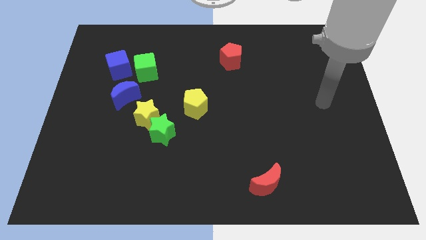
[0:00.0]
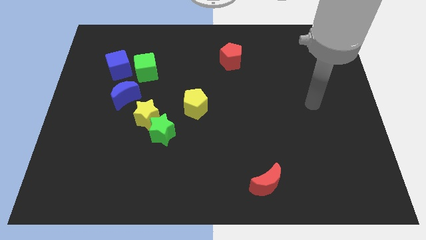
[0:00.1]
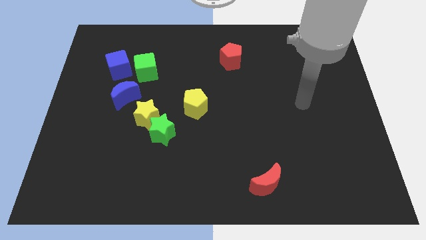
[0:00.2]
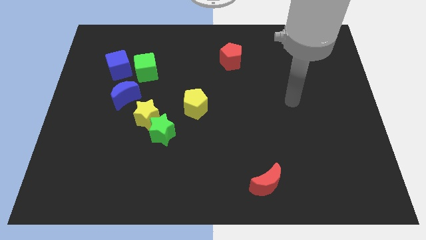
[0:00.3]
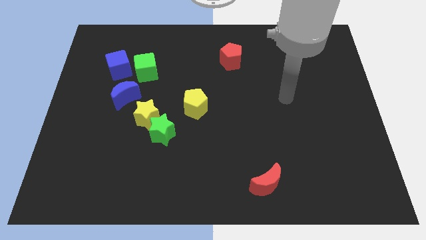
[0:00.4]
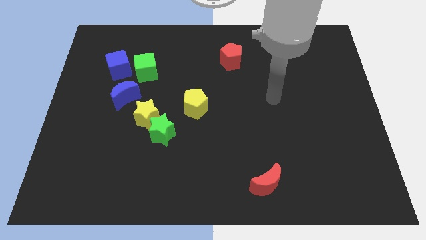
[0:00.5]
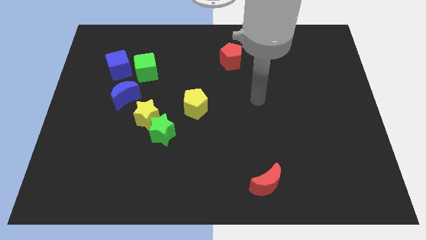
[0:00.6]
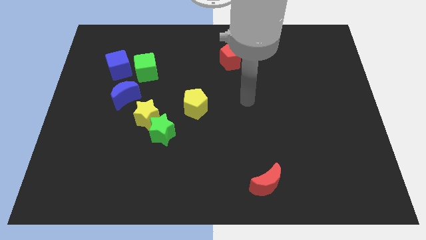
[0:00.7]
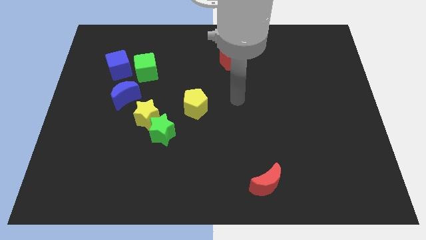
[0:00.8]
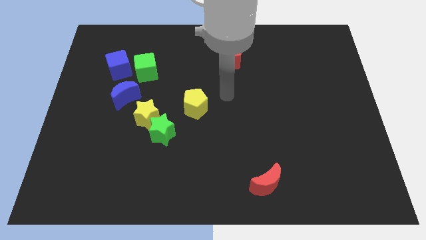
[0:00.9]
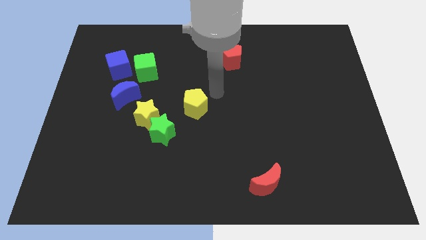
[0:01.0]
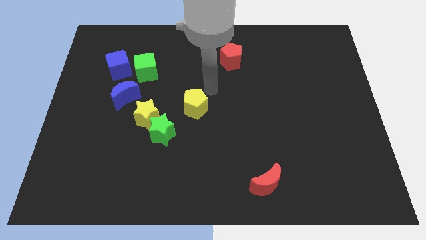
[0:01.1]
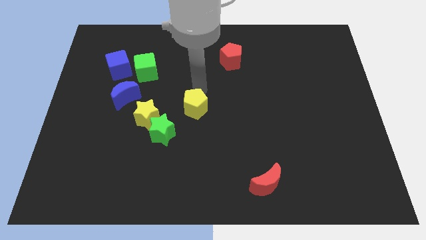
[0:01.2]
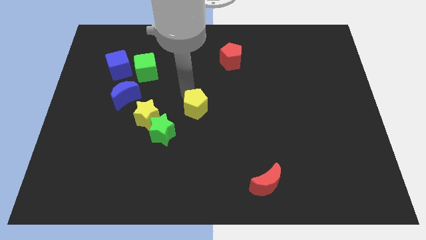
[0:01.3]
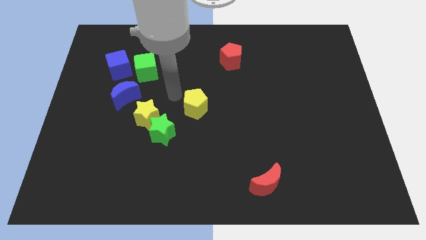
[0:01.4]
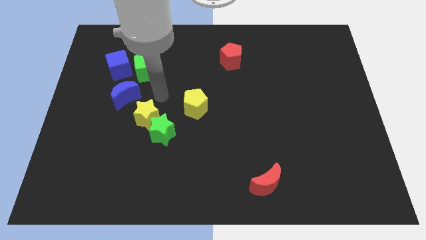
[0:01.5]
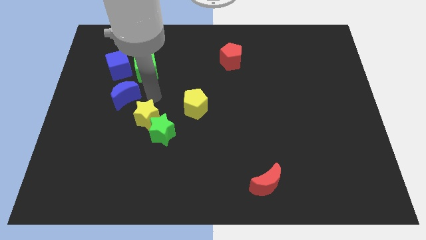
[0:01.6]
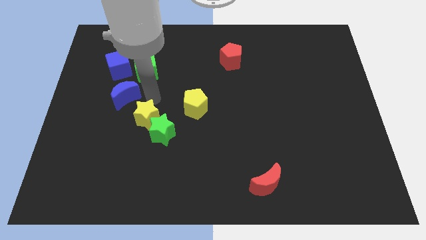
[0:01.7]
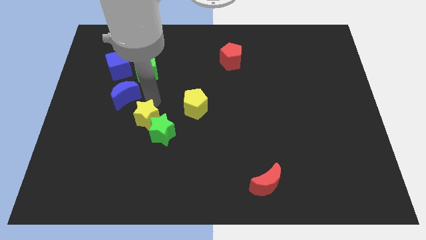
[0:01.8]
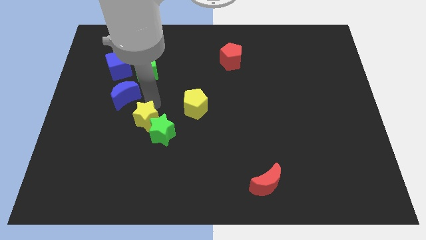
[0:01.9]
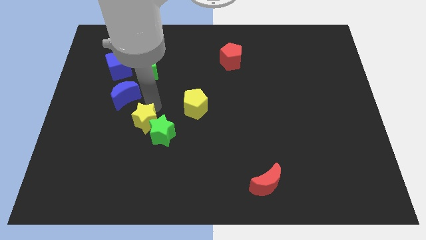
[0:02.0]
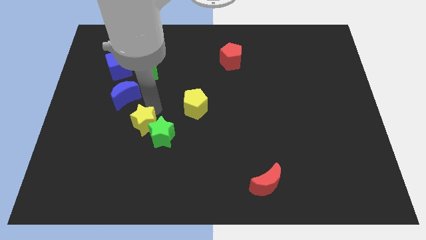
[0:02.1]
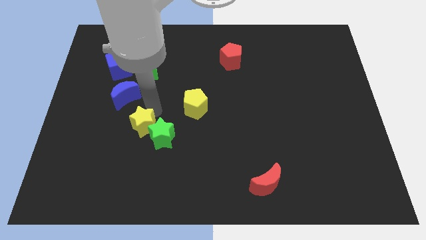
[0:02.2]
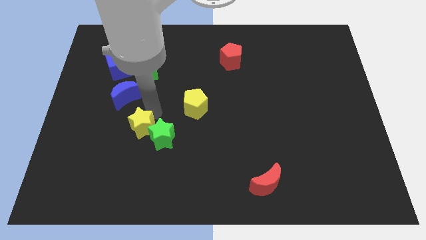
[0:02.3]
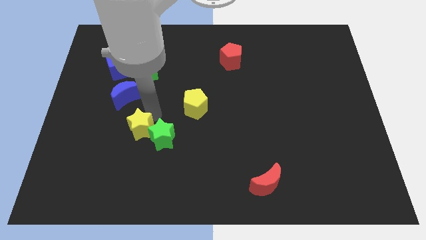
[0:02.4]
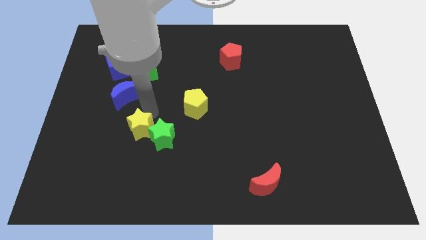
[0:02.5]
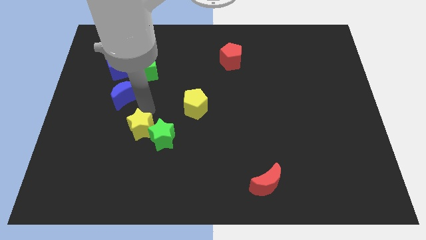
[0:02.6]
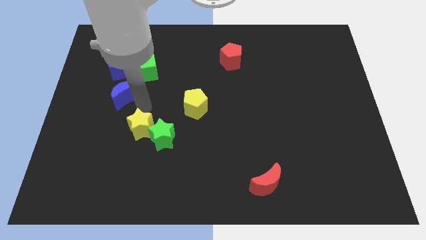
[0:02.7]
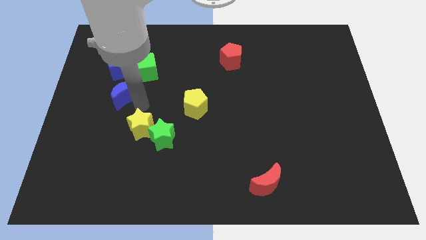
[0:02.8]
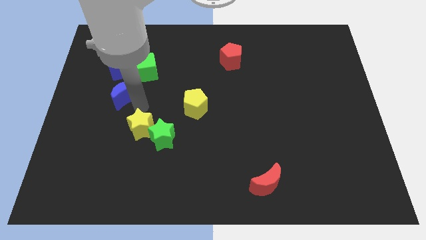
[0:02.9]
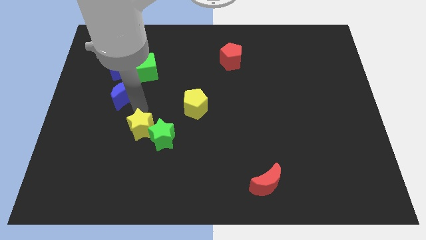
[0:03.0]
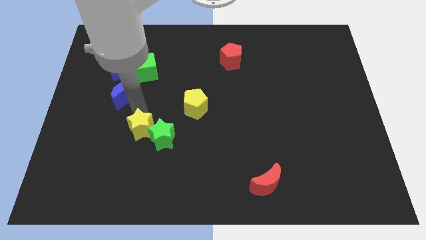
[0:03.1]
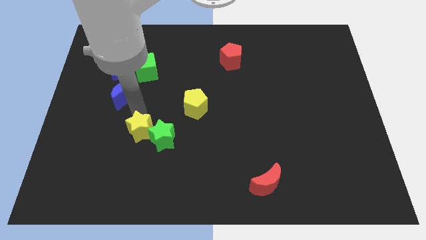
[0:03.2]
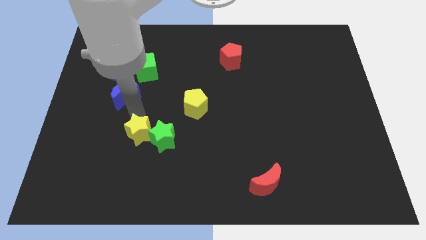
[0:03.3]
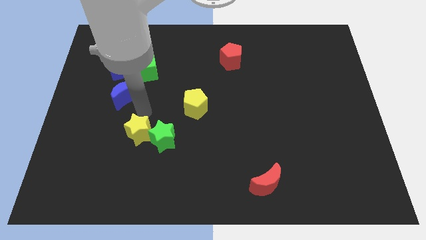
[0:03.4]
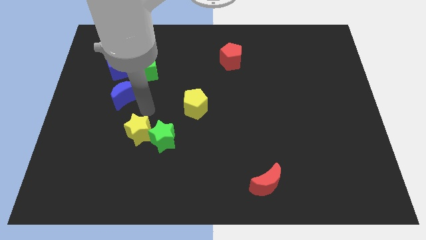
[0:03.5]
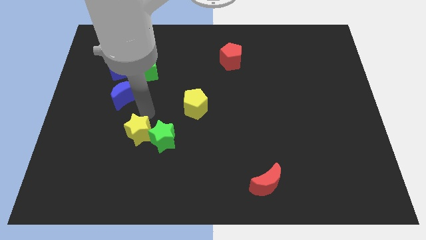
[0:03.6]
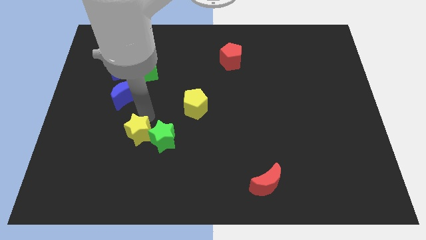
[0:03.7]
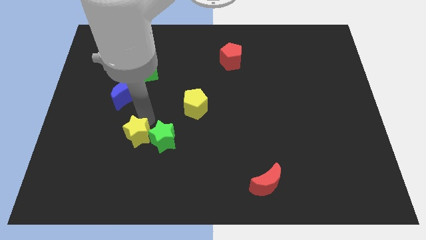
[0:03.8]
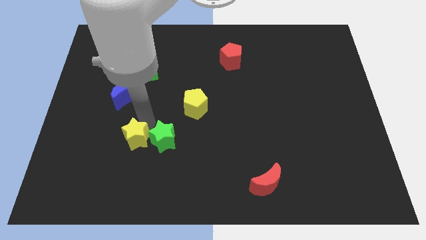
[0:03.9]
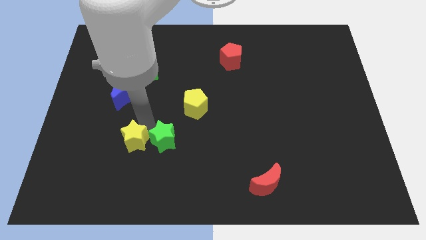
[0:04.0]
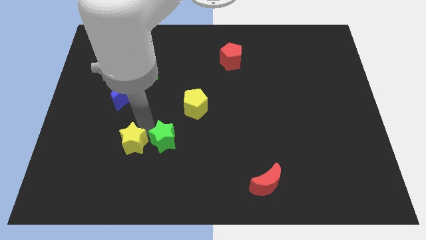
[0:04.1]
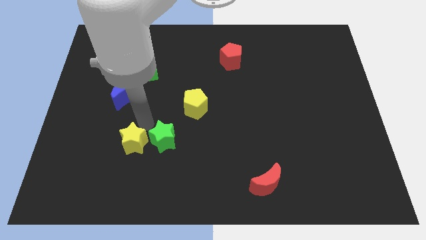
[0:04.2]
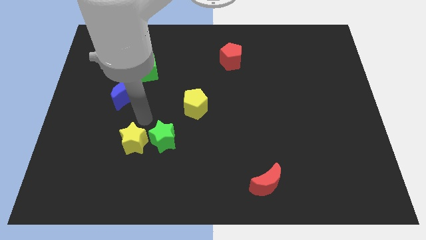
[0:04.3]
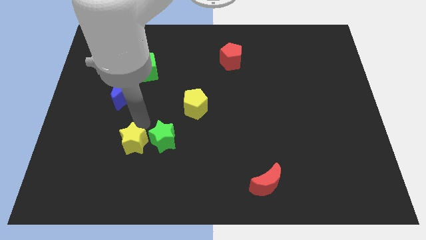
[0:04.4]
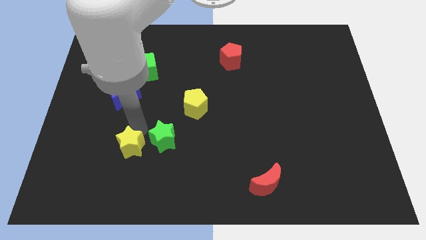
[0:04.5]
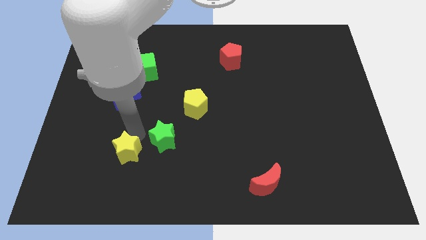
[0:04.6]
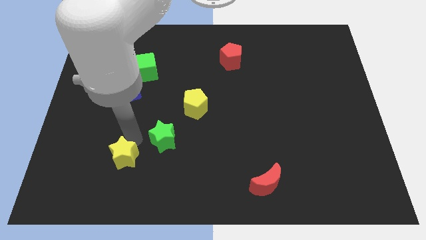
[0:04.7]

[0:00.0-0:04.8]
separate the yellow star from the green star and blue moon

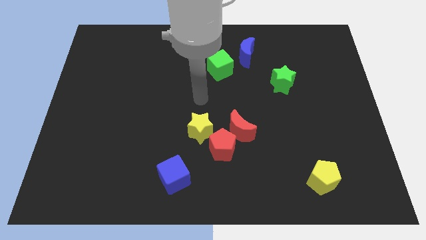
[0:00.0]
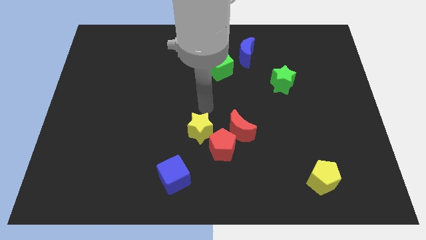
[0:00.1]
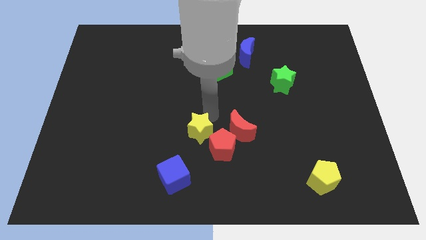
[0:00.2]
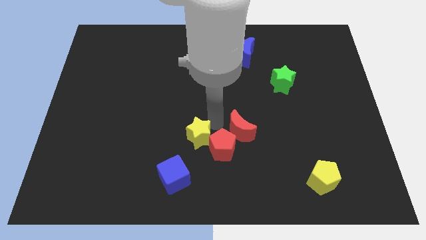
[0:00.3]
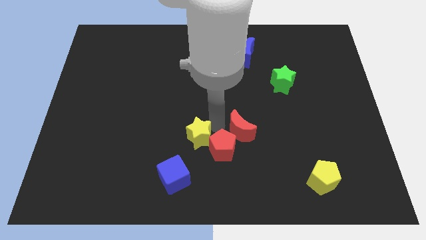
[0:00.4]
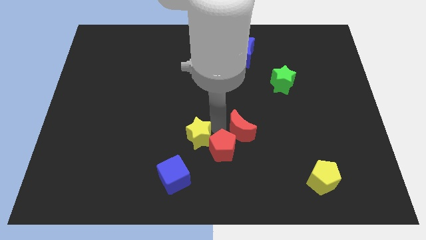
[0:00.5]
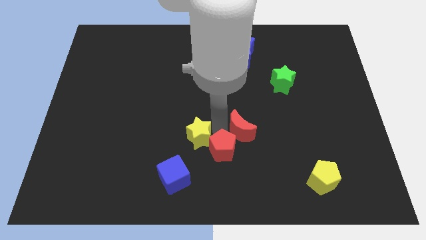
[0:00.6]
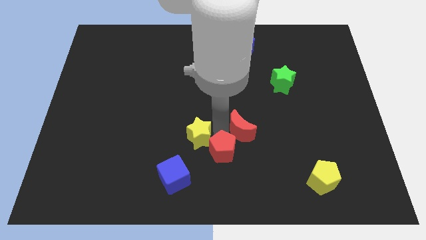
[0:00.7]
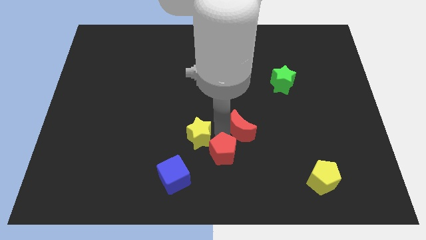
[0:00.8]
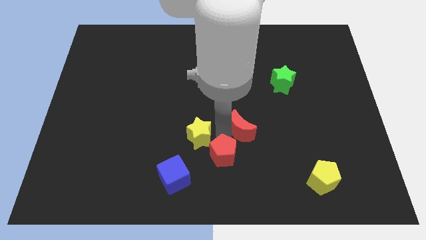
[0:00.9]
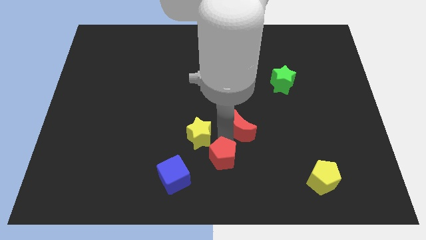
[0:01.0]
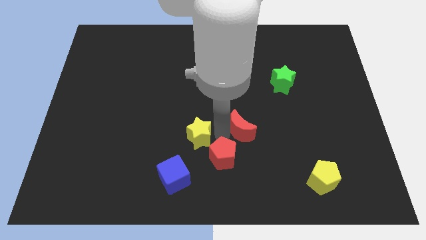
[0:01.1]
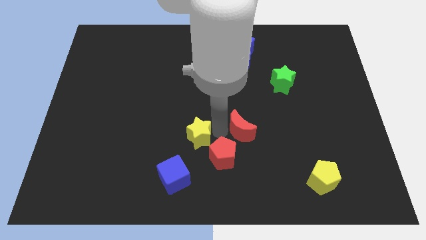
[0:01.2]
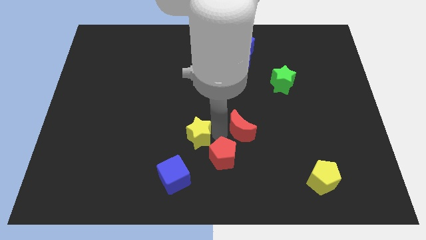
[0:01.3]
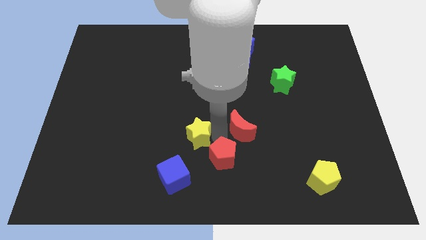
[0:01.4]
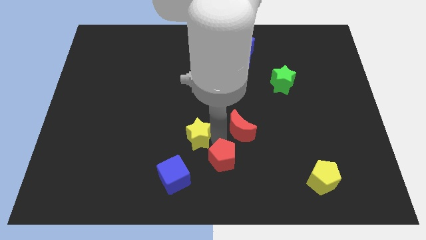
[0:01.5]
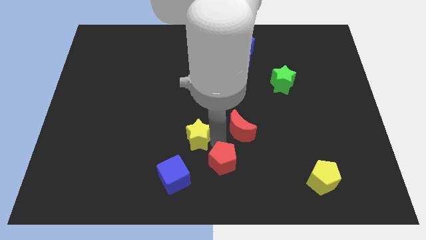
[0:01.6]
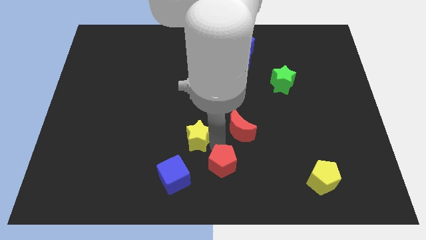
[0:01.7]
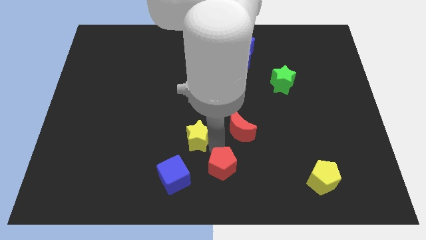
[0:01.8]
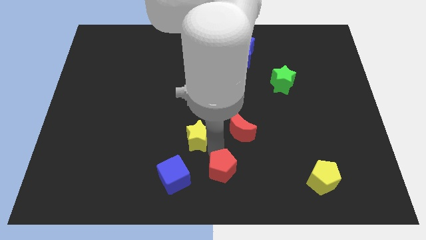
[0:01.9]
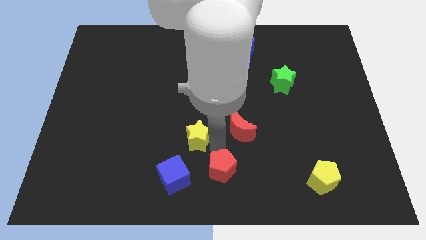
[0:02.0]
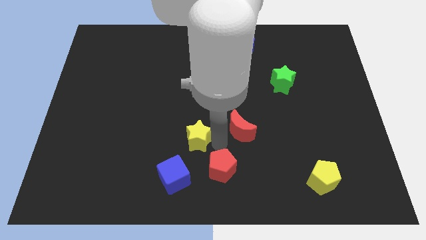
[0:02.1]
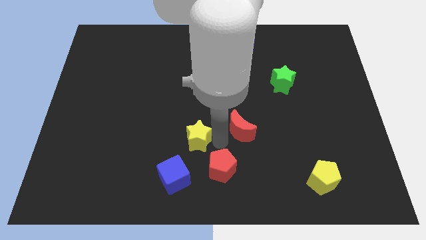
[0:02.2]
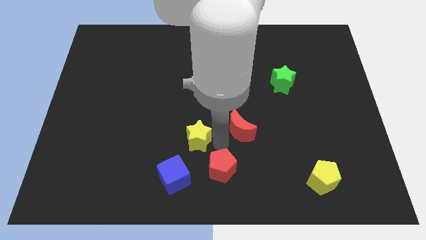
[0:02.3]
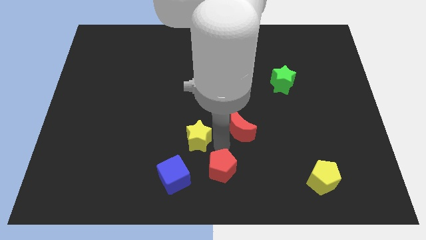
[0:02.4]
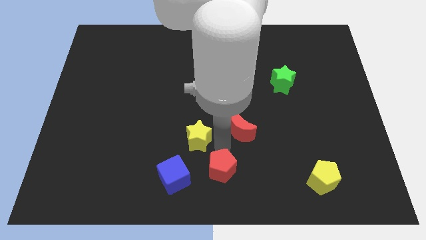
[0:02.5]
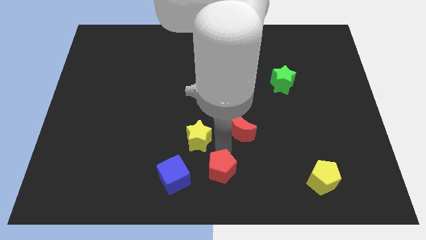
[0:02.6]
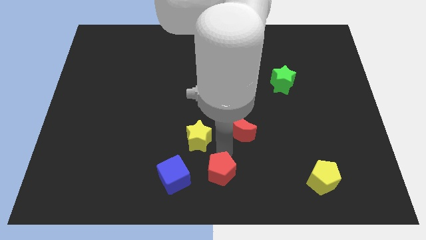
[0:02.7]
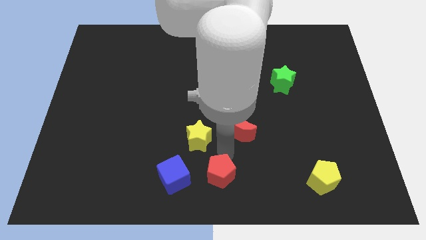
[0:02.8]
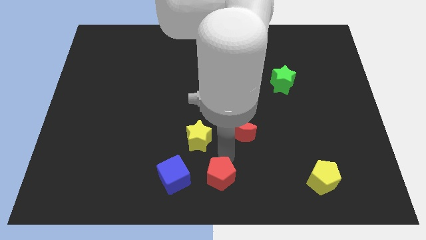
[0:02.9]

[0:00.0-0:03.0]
move the red pentagon away from the red moon and yellow star

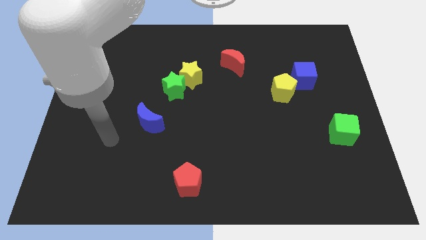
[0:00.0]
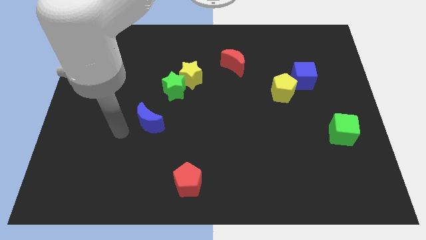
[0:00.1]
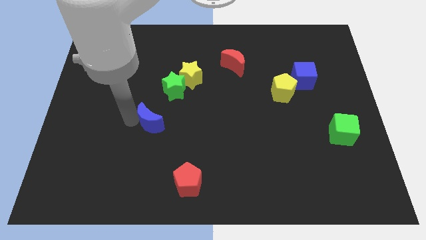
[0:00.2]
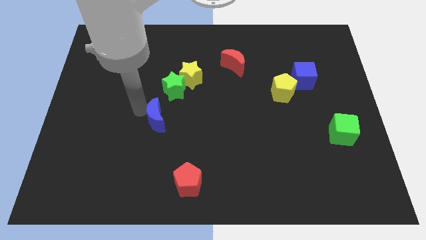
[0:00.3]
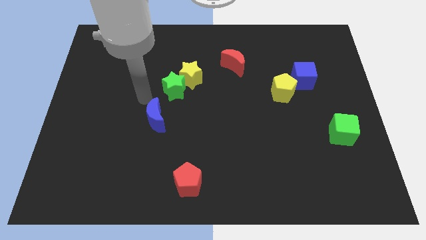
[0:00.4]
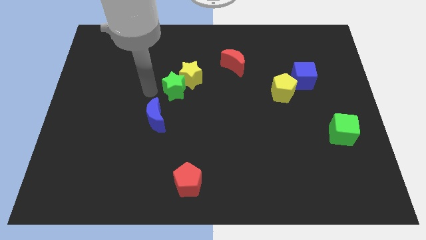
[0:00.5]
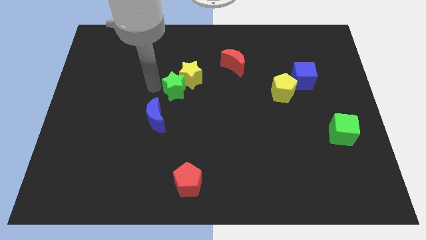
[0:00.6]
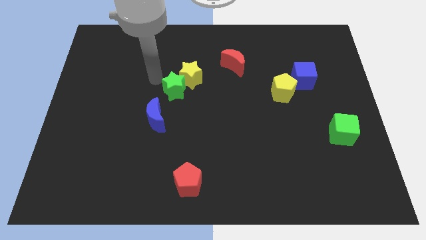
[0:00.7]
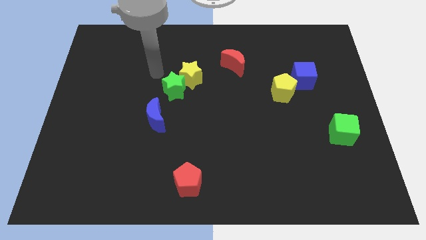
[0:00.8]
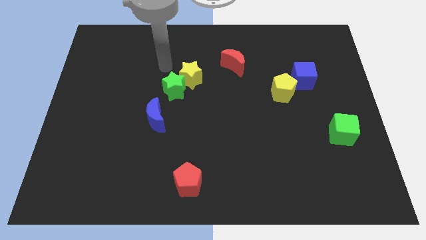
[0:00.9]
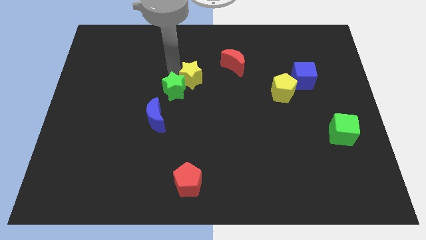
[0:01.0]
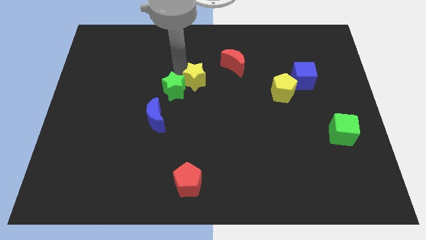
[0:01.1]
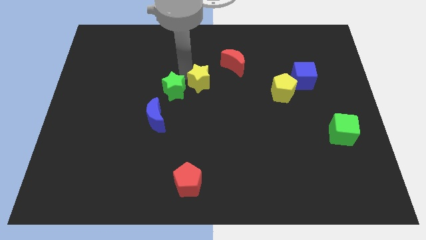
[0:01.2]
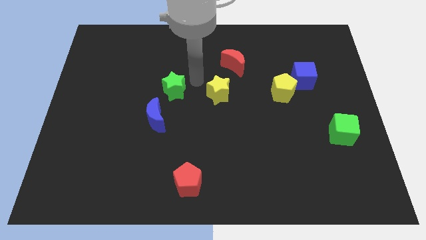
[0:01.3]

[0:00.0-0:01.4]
pull the green star apart from the yellow star

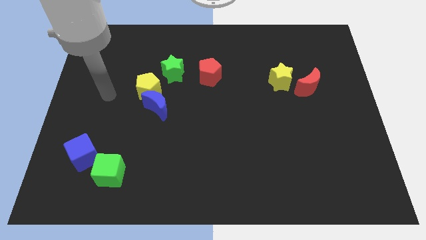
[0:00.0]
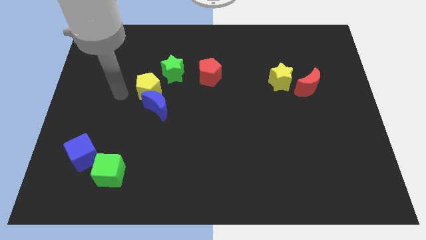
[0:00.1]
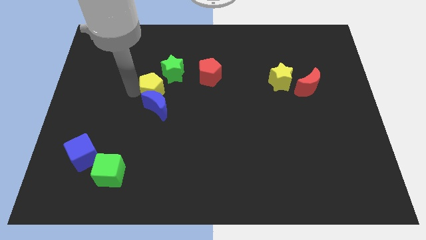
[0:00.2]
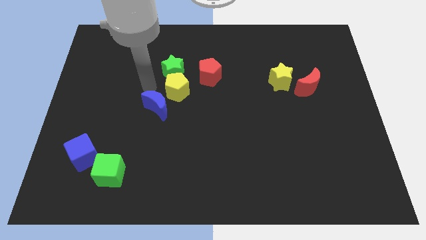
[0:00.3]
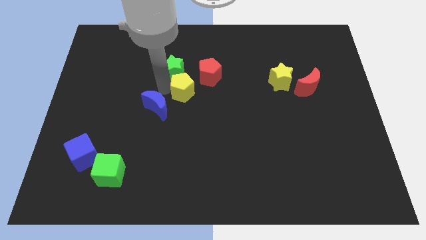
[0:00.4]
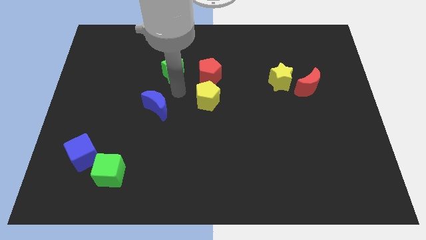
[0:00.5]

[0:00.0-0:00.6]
separate the blue moon from the yellow pentagon
